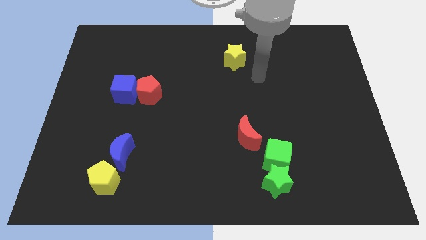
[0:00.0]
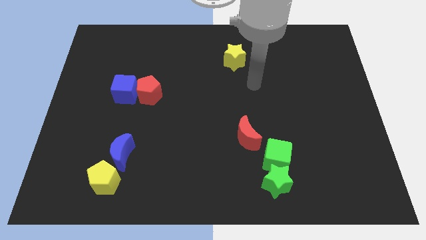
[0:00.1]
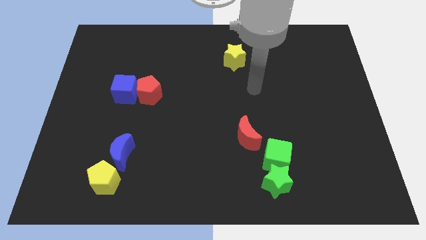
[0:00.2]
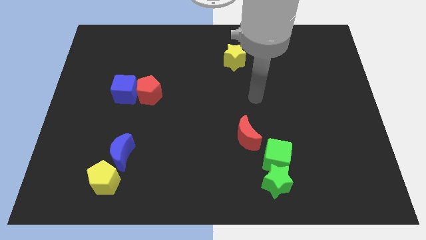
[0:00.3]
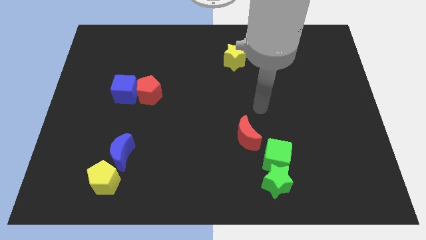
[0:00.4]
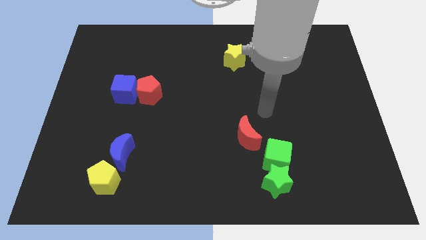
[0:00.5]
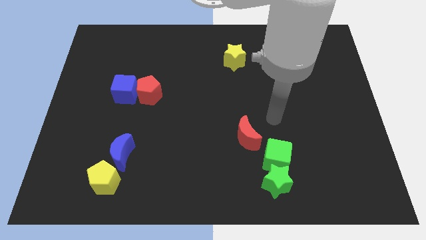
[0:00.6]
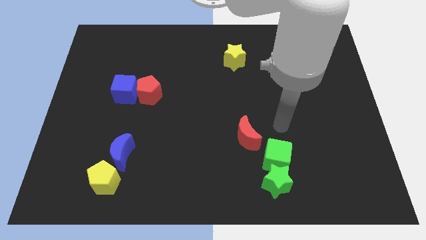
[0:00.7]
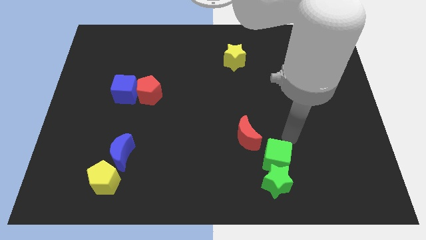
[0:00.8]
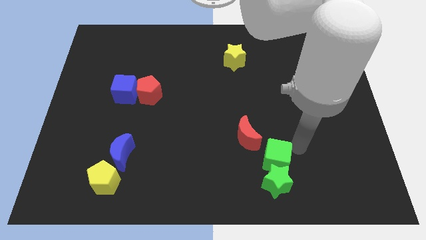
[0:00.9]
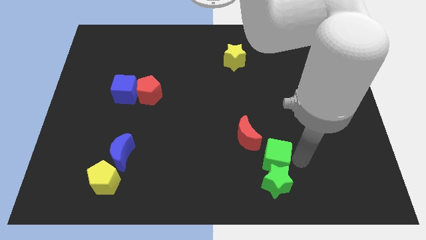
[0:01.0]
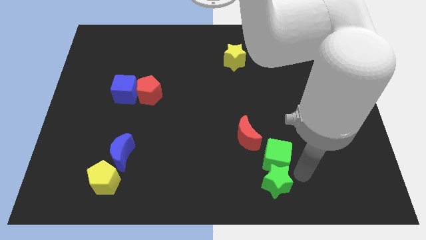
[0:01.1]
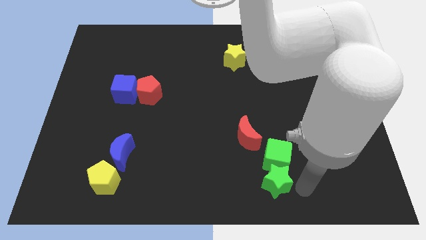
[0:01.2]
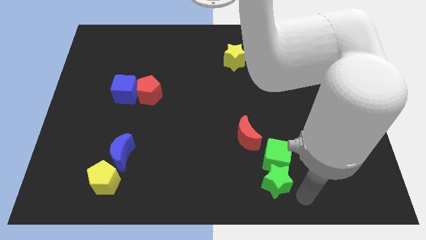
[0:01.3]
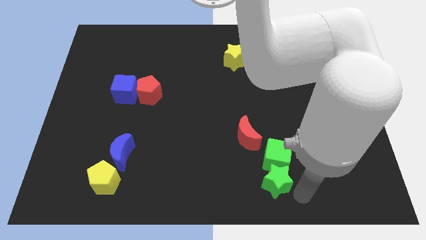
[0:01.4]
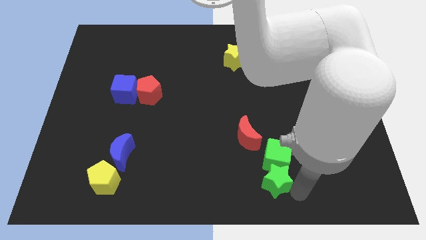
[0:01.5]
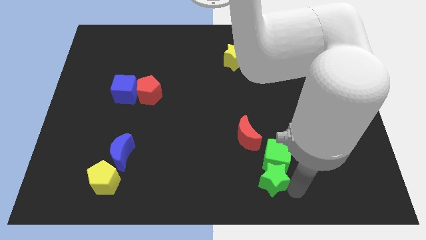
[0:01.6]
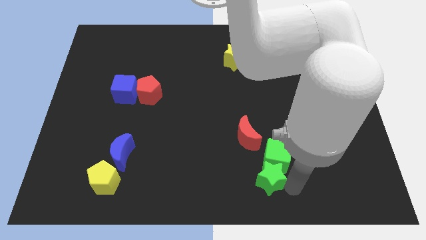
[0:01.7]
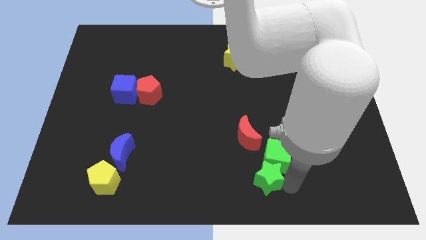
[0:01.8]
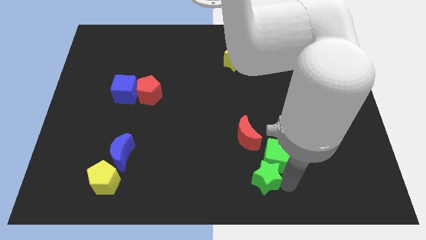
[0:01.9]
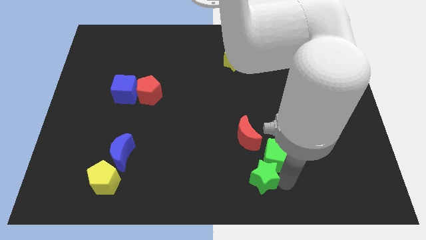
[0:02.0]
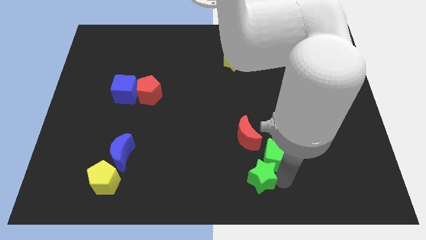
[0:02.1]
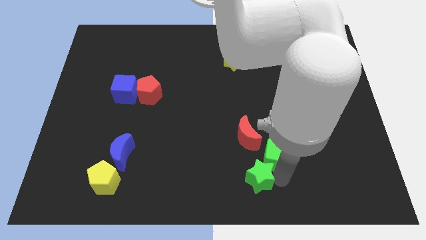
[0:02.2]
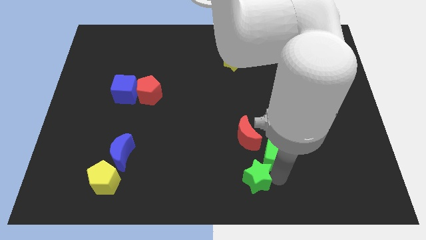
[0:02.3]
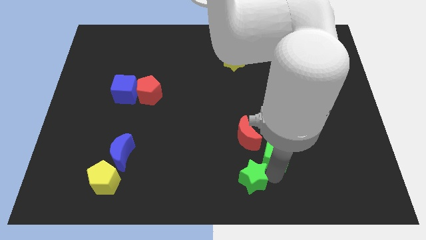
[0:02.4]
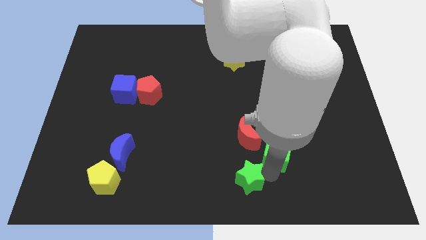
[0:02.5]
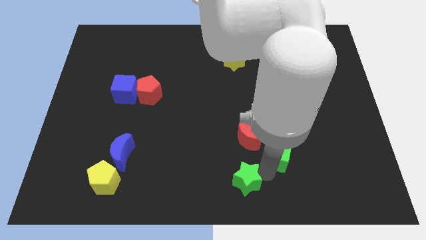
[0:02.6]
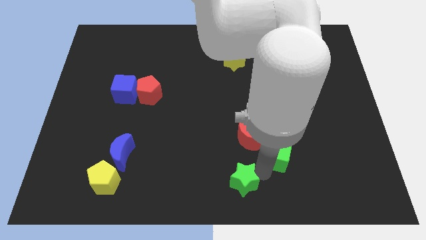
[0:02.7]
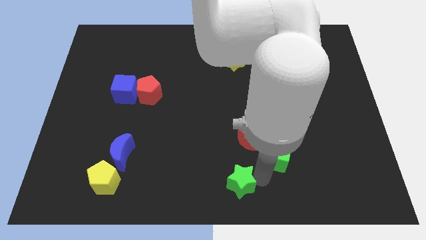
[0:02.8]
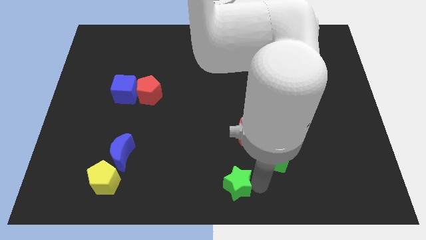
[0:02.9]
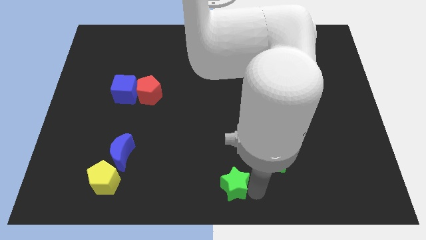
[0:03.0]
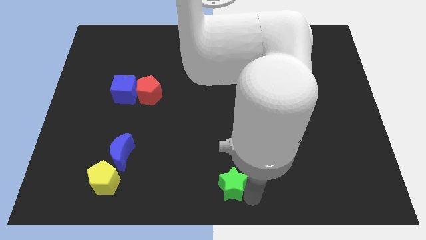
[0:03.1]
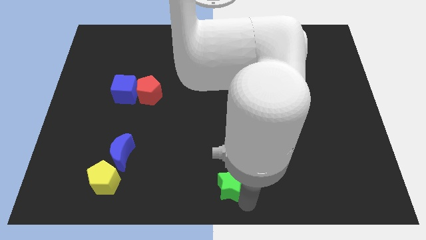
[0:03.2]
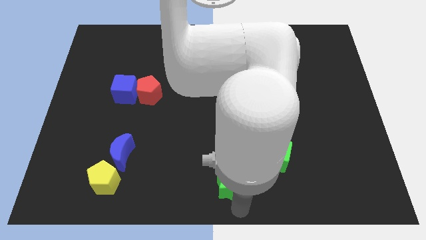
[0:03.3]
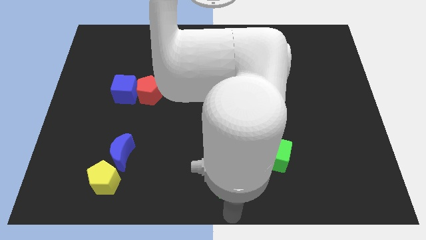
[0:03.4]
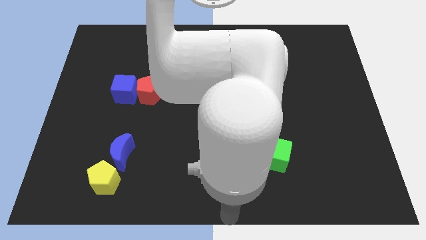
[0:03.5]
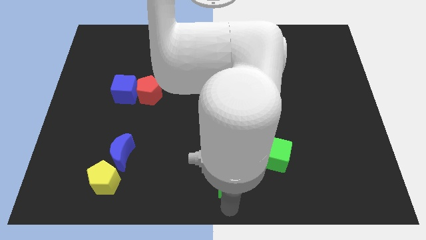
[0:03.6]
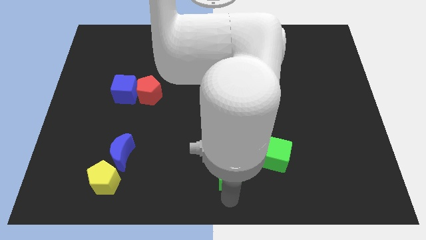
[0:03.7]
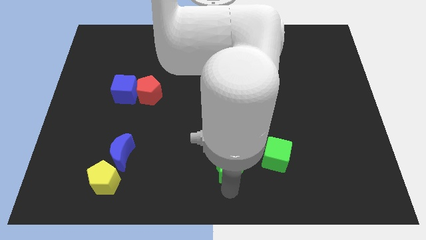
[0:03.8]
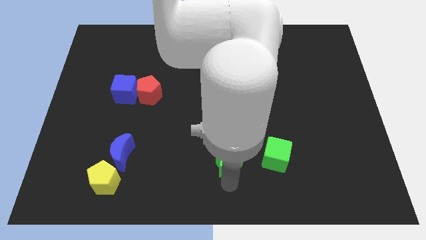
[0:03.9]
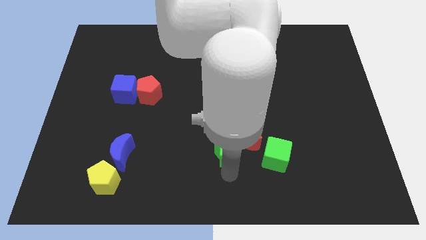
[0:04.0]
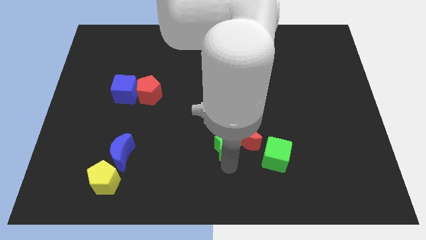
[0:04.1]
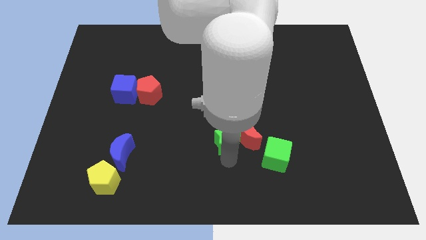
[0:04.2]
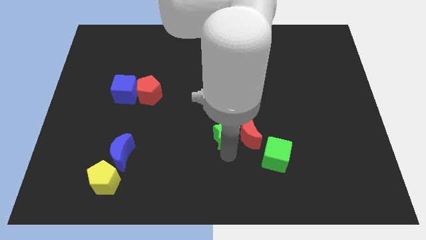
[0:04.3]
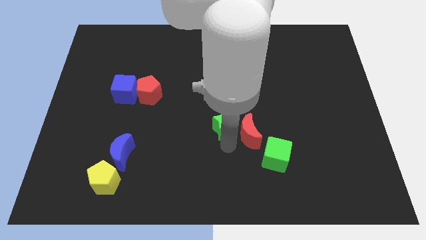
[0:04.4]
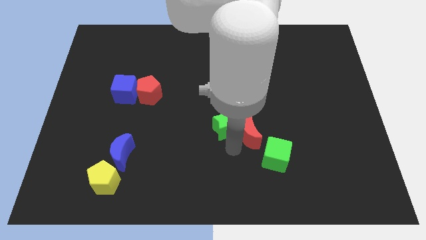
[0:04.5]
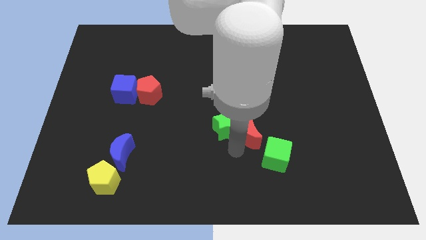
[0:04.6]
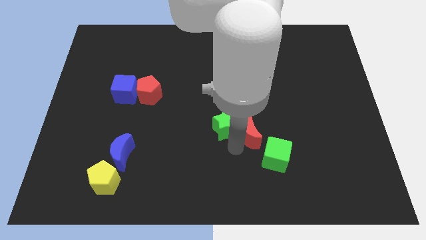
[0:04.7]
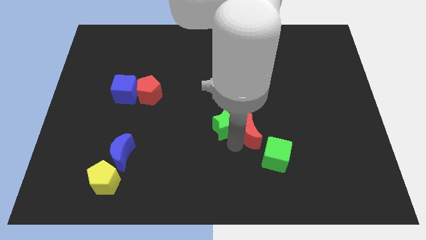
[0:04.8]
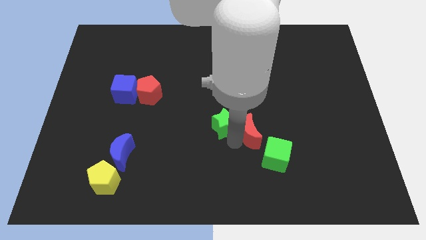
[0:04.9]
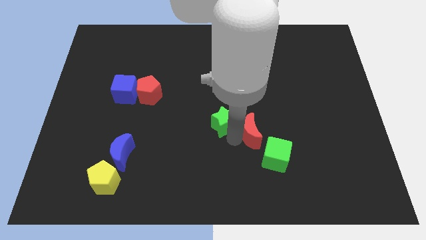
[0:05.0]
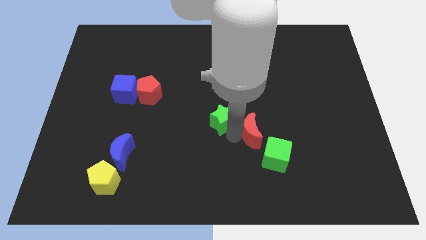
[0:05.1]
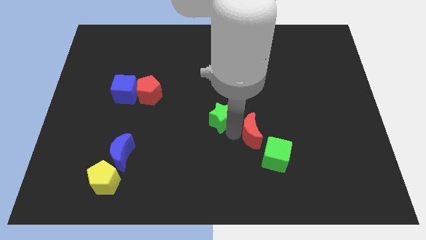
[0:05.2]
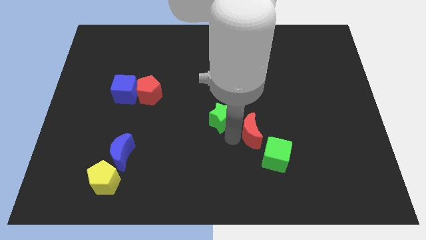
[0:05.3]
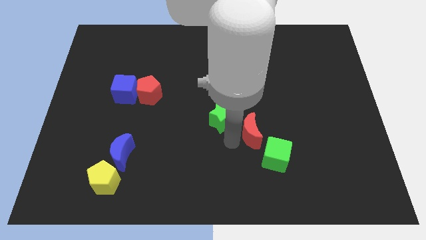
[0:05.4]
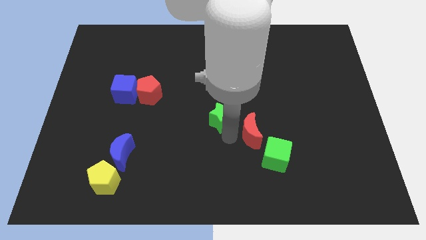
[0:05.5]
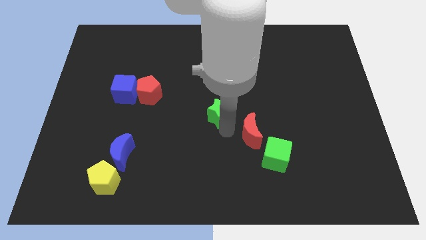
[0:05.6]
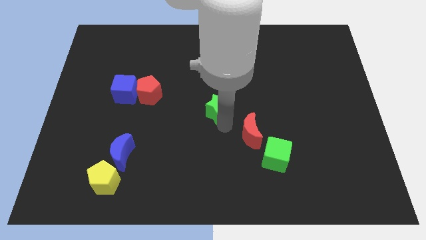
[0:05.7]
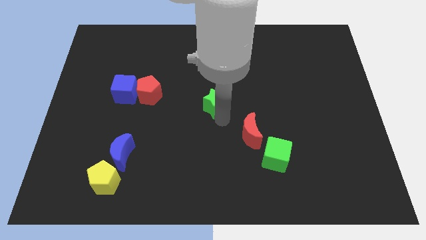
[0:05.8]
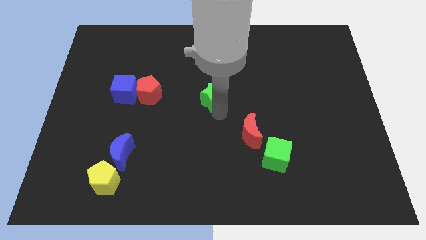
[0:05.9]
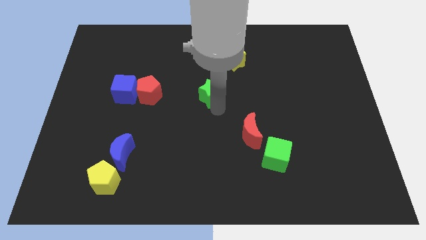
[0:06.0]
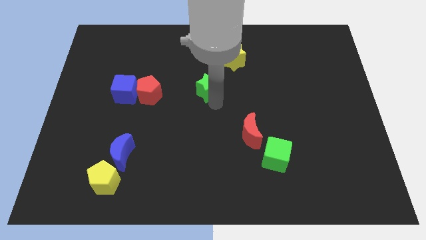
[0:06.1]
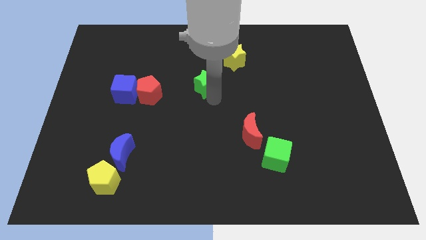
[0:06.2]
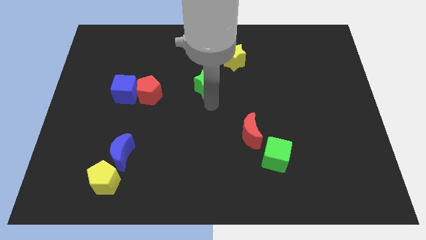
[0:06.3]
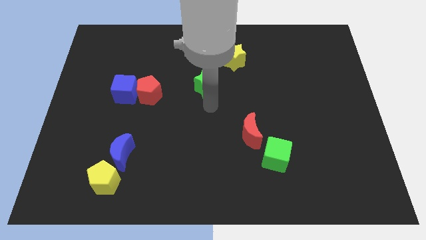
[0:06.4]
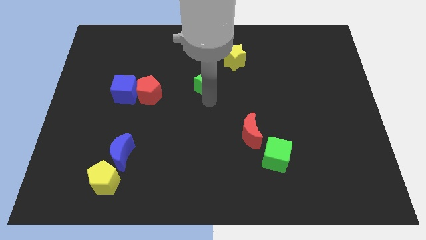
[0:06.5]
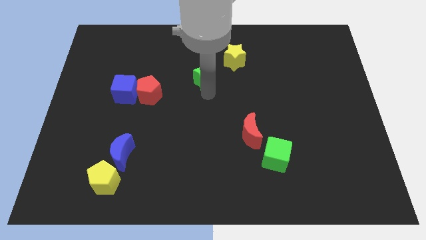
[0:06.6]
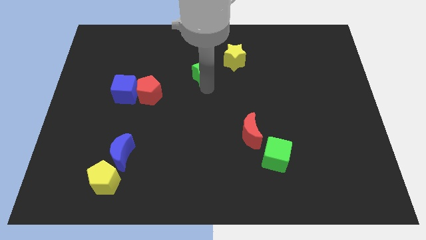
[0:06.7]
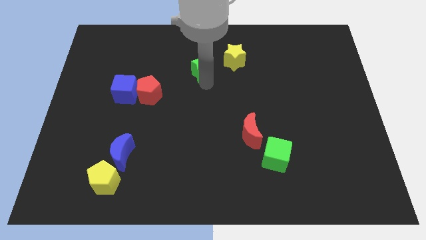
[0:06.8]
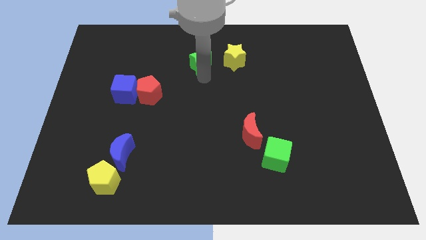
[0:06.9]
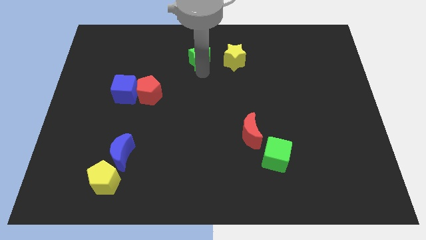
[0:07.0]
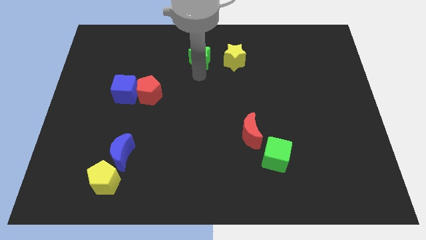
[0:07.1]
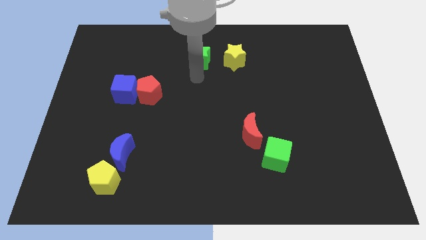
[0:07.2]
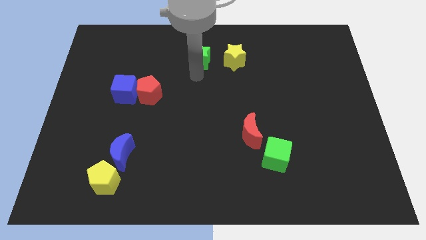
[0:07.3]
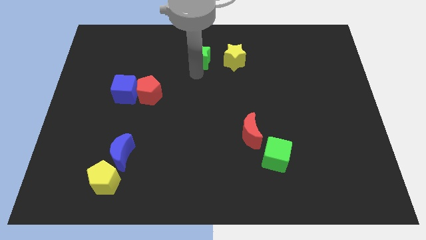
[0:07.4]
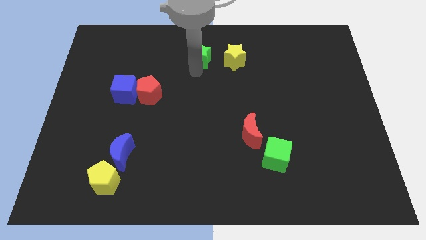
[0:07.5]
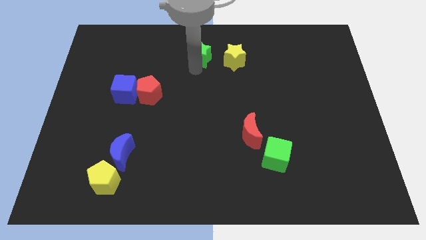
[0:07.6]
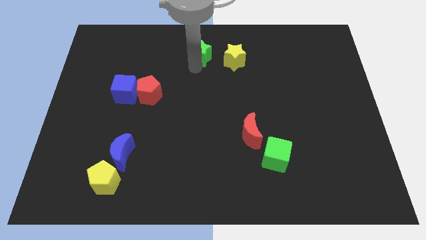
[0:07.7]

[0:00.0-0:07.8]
put the green star to the towards your base
